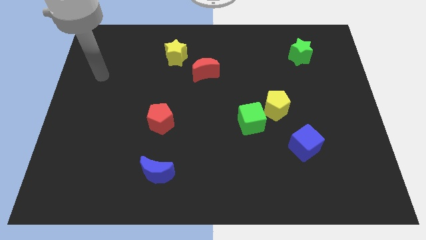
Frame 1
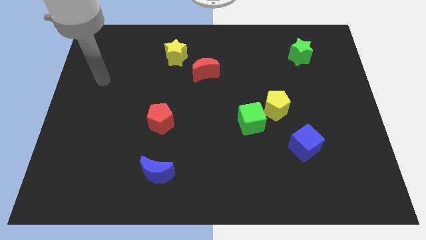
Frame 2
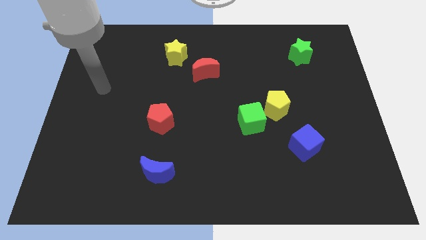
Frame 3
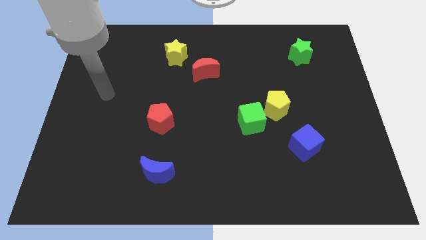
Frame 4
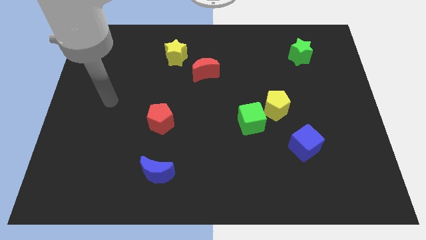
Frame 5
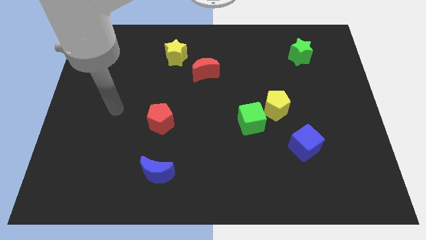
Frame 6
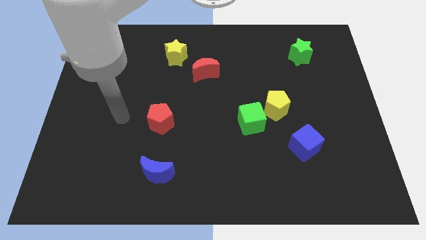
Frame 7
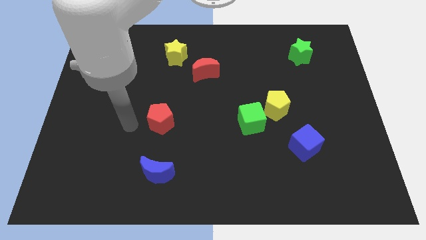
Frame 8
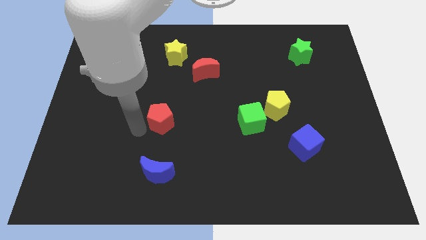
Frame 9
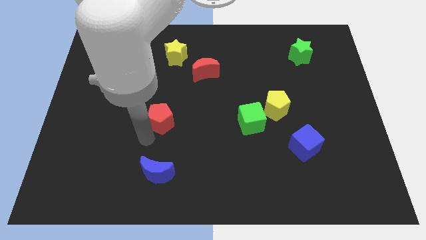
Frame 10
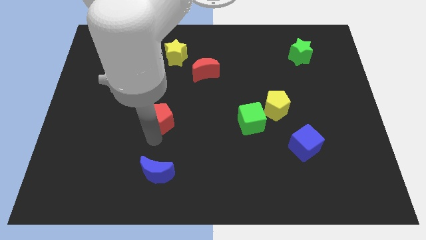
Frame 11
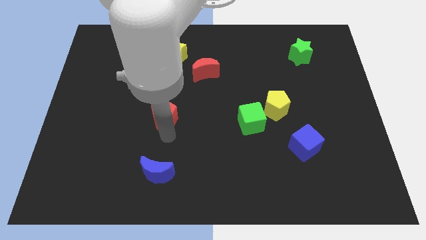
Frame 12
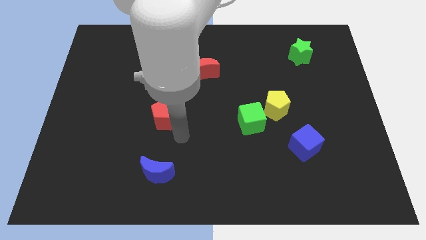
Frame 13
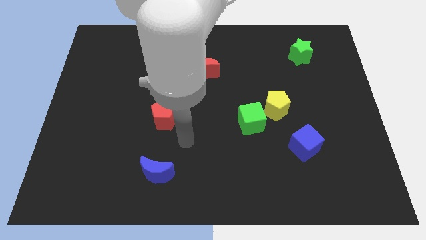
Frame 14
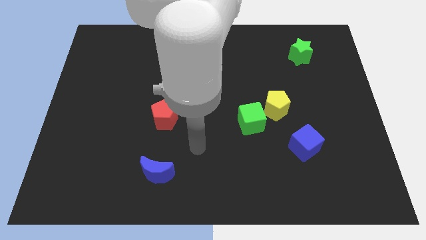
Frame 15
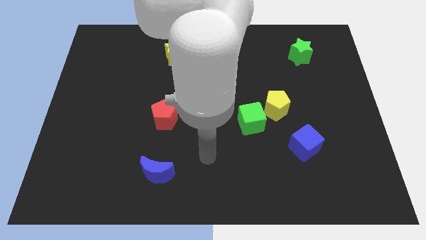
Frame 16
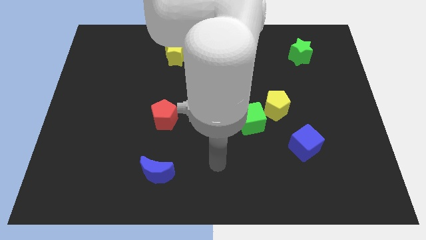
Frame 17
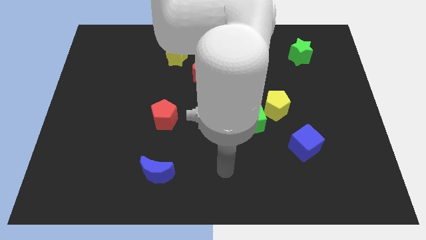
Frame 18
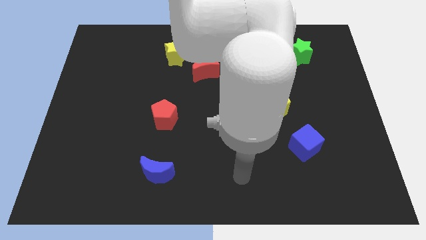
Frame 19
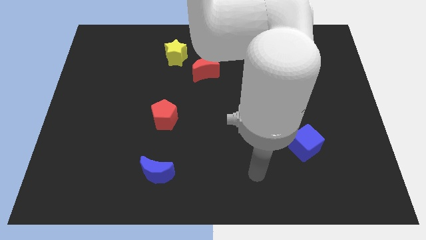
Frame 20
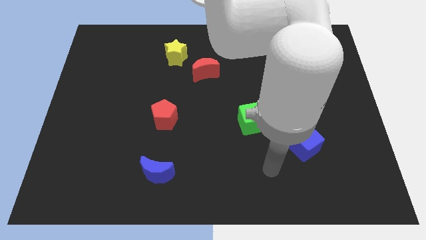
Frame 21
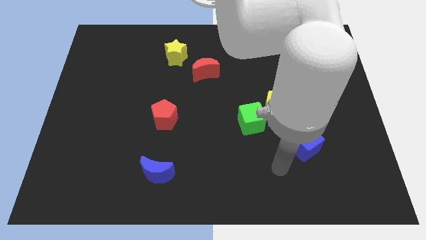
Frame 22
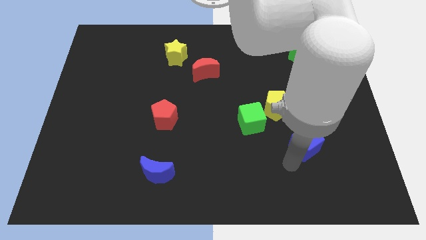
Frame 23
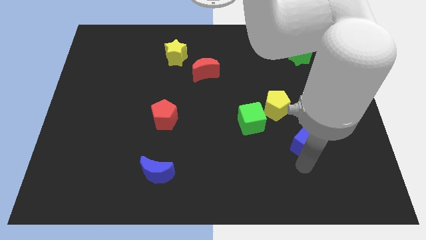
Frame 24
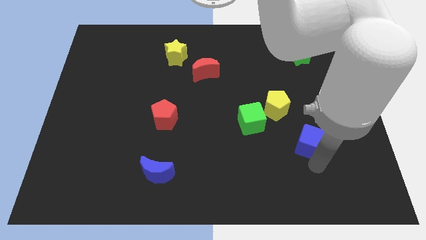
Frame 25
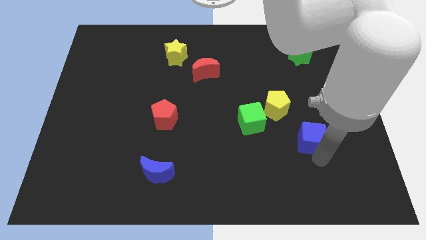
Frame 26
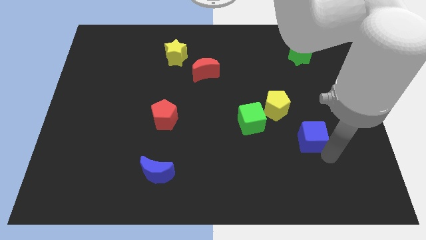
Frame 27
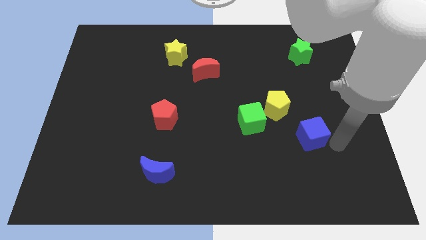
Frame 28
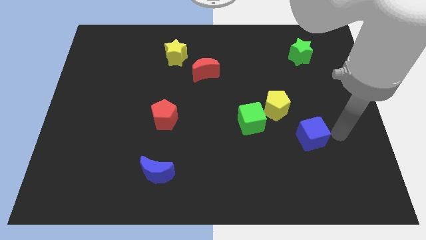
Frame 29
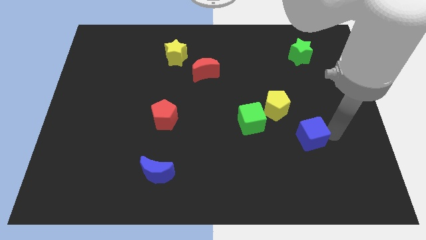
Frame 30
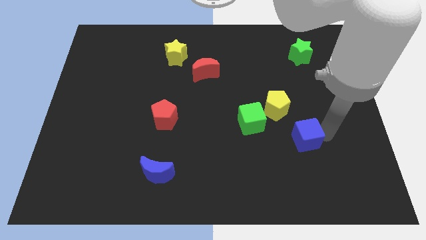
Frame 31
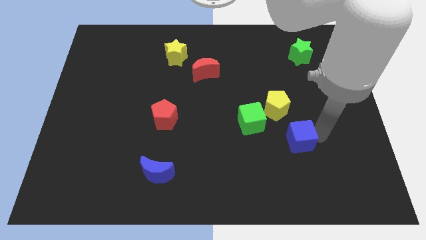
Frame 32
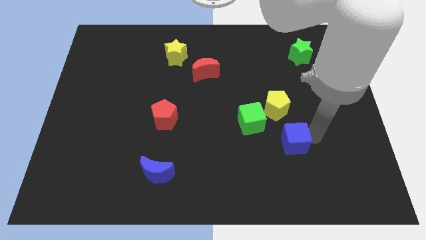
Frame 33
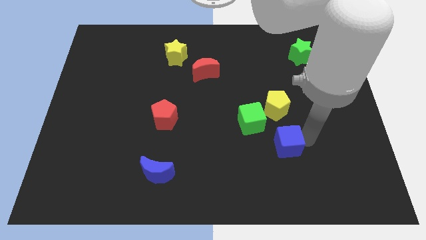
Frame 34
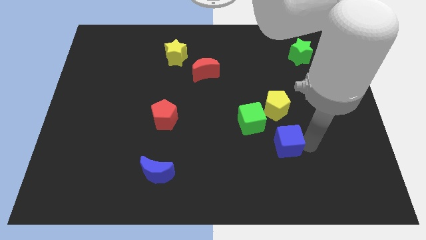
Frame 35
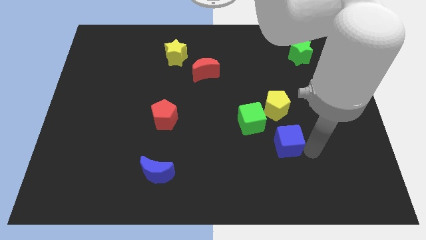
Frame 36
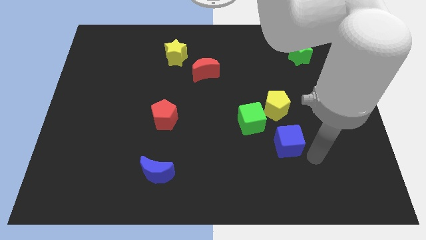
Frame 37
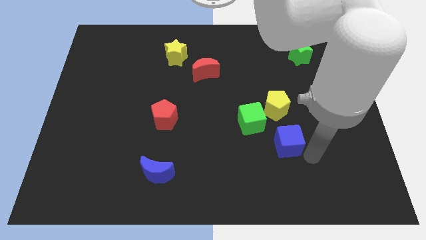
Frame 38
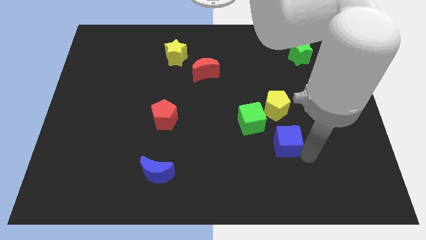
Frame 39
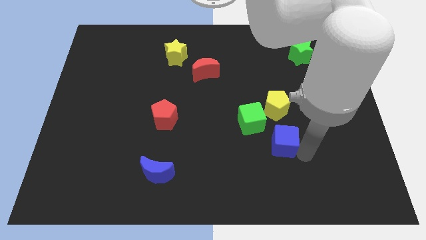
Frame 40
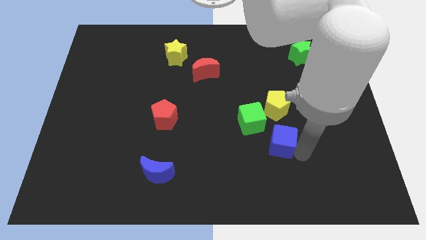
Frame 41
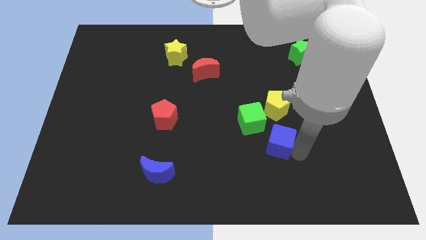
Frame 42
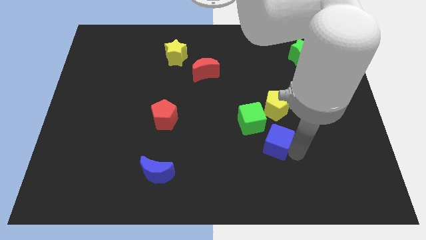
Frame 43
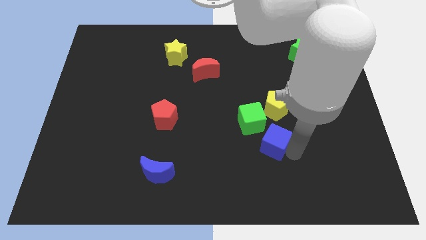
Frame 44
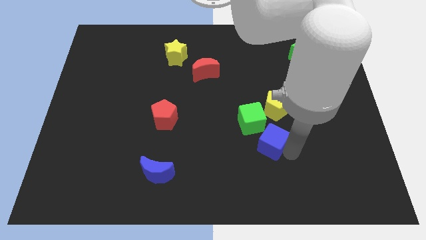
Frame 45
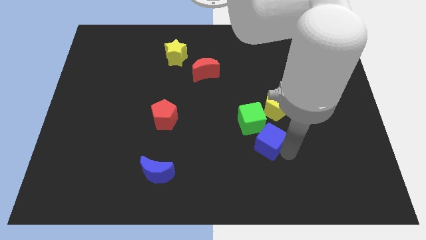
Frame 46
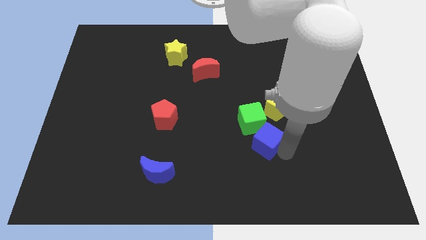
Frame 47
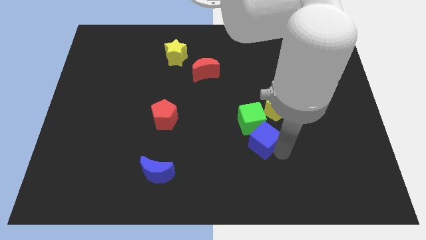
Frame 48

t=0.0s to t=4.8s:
put the blue cube towards the green cube

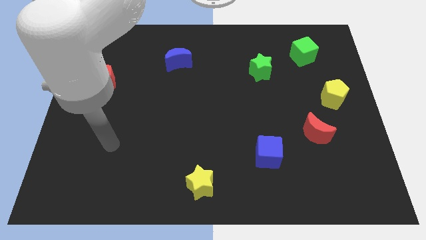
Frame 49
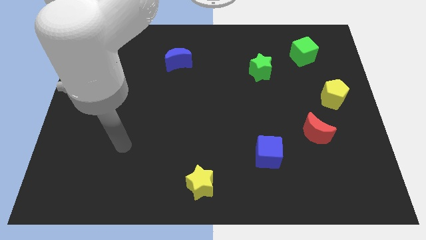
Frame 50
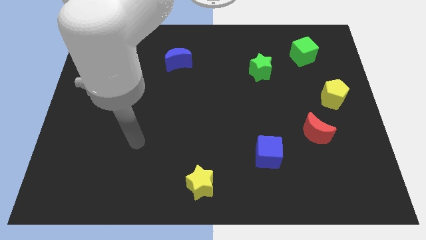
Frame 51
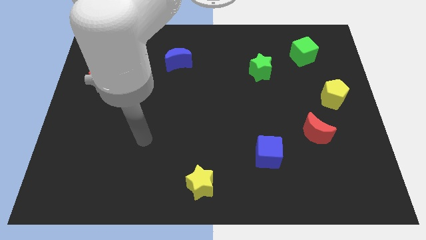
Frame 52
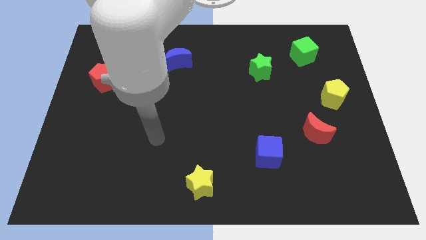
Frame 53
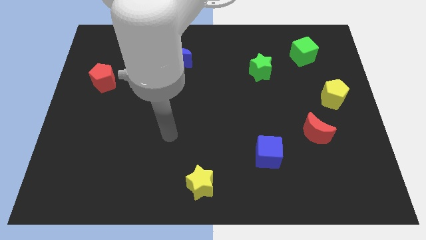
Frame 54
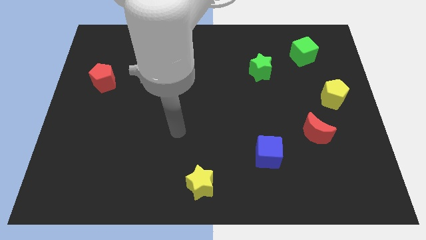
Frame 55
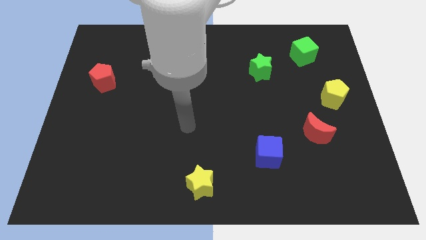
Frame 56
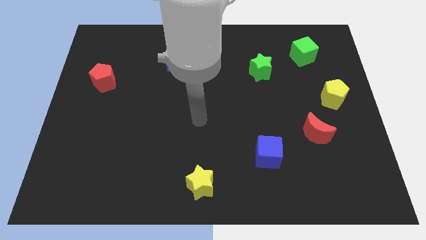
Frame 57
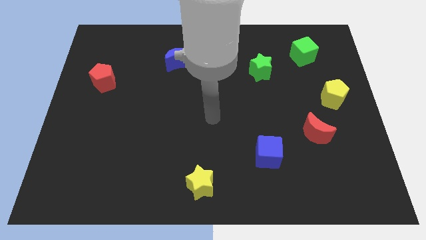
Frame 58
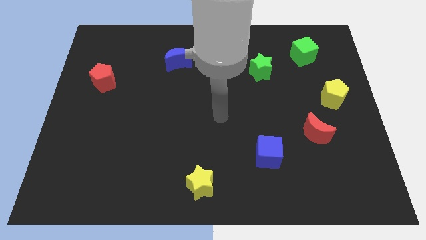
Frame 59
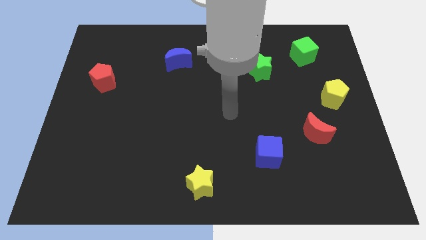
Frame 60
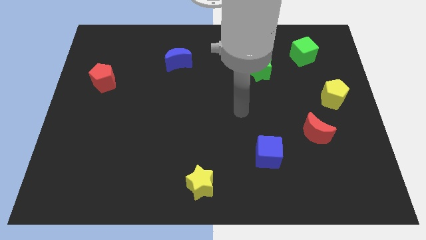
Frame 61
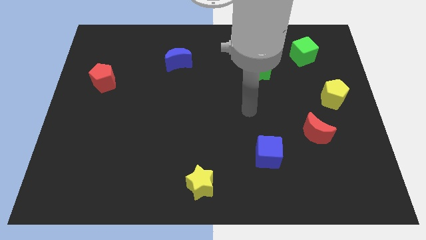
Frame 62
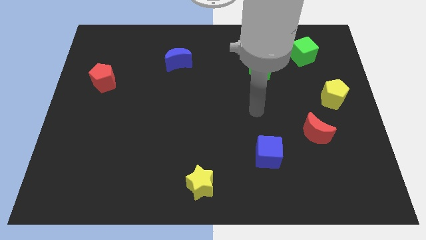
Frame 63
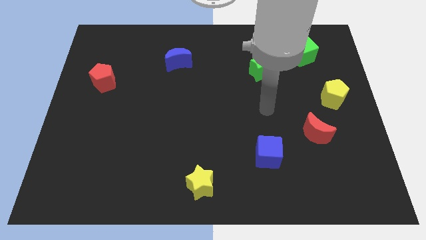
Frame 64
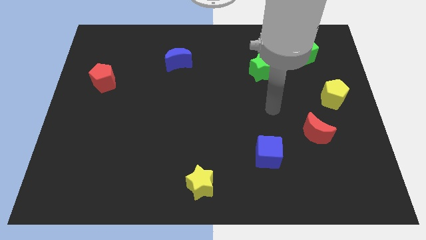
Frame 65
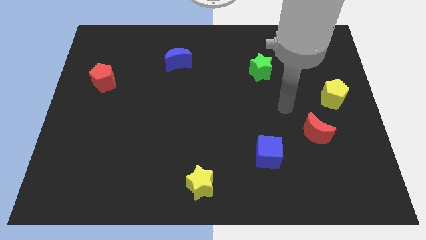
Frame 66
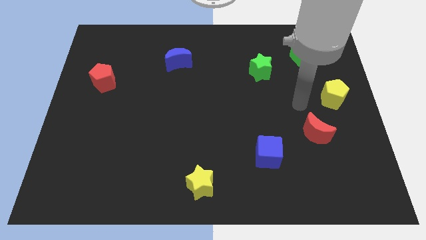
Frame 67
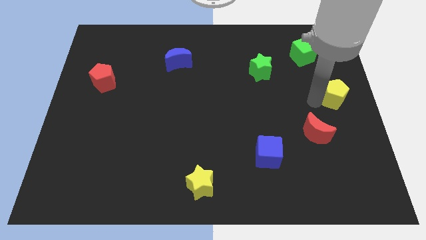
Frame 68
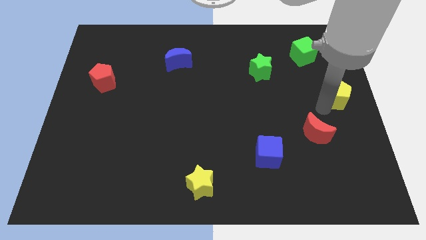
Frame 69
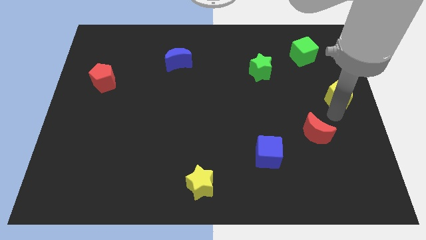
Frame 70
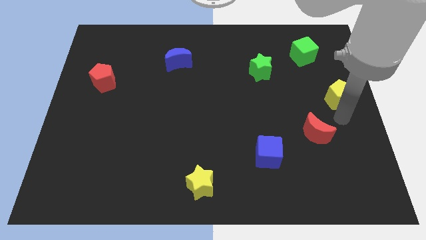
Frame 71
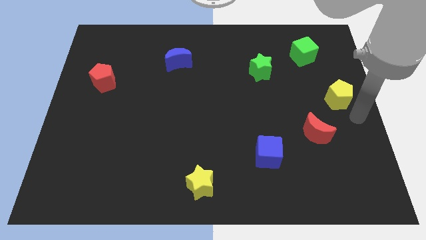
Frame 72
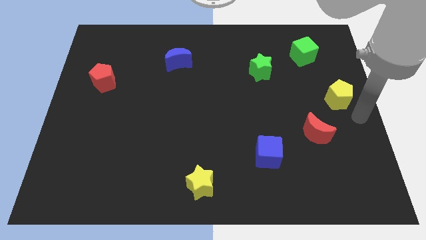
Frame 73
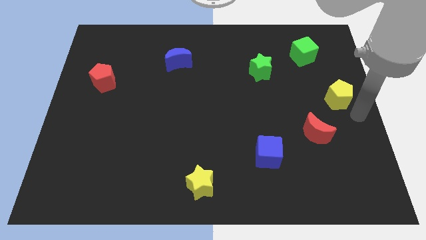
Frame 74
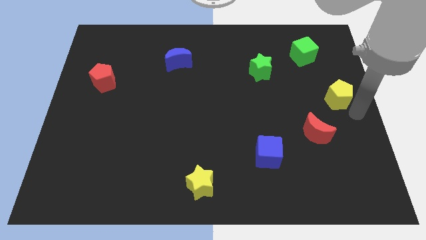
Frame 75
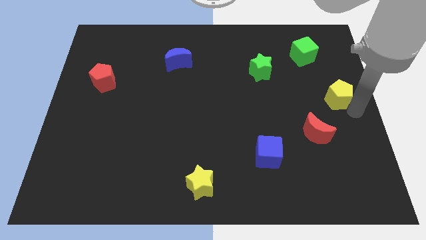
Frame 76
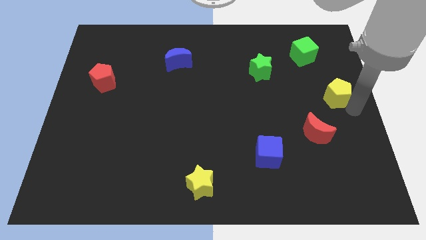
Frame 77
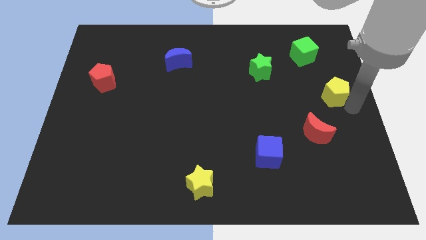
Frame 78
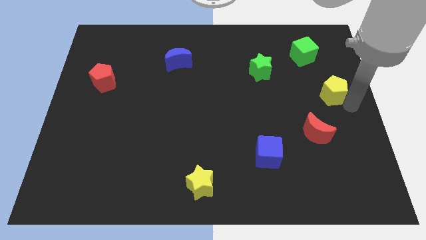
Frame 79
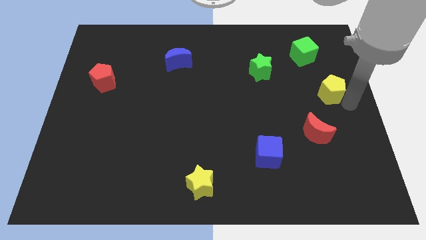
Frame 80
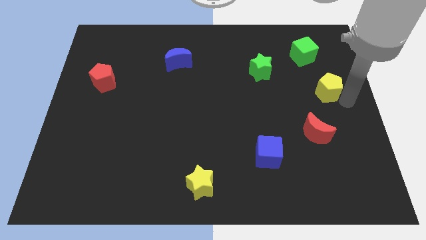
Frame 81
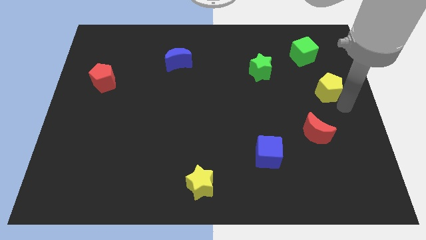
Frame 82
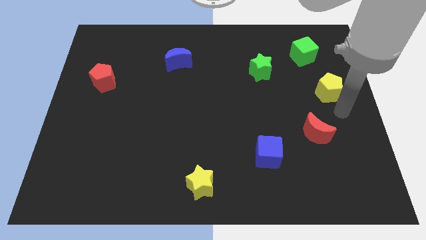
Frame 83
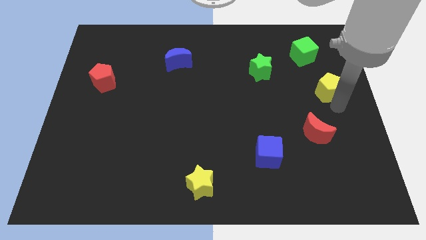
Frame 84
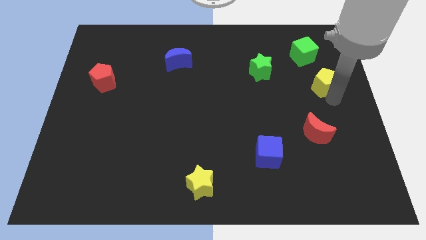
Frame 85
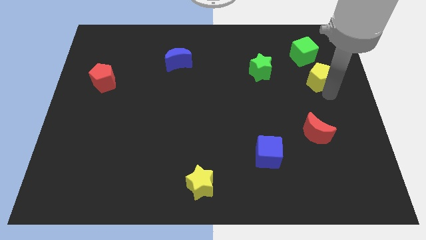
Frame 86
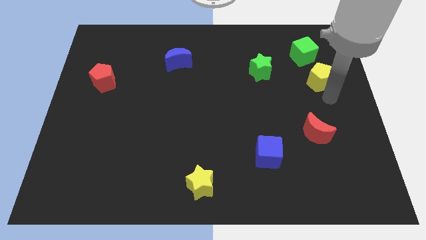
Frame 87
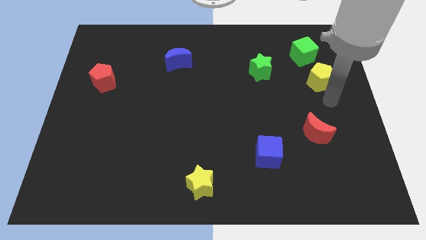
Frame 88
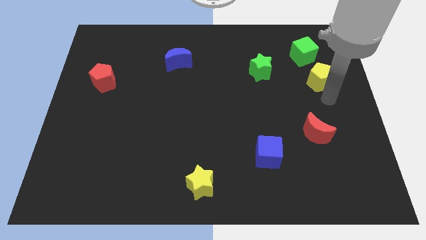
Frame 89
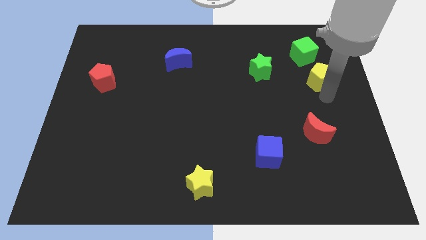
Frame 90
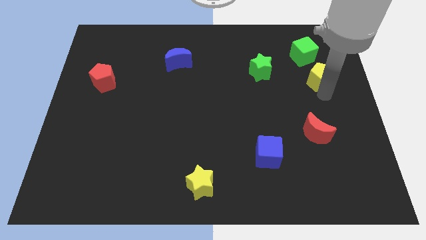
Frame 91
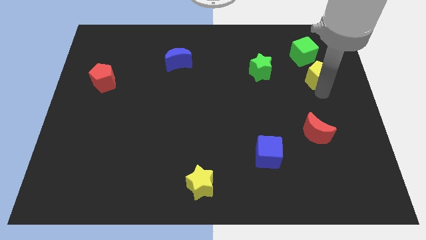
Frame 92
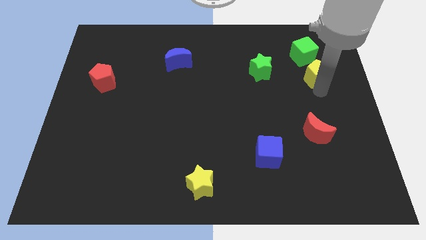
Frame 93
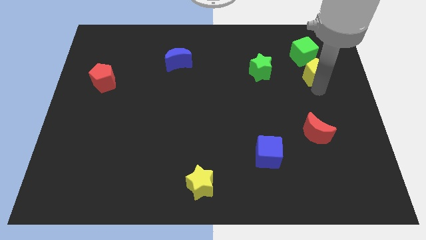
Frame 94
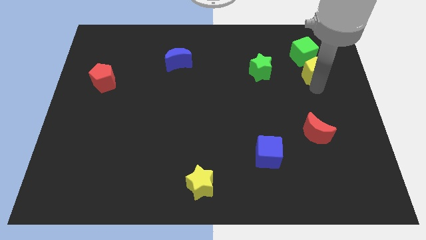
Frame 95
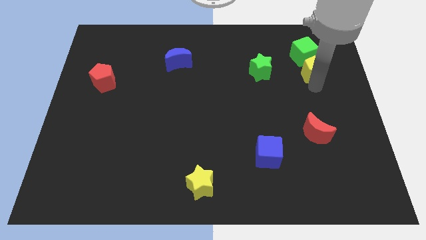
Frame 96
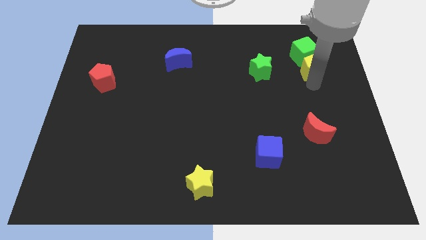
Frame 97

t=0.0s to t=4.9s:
slide the yellow pentagon to the green cube
